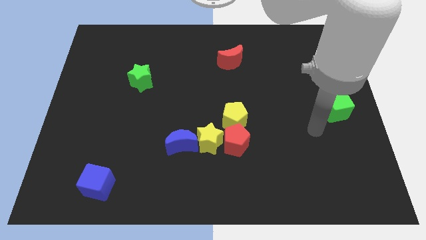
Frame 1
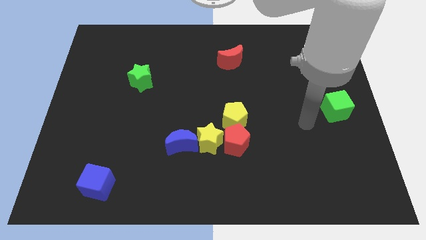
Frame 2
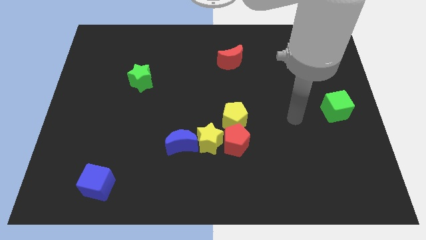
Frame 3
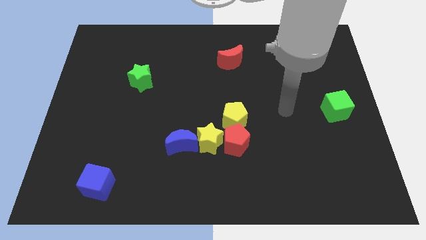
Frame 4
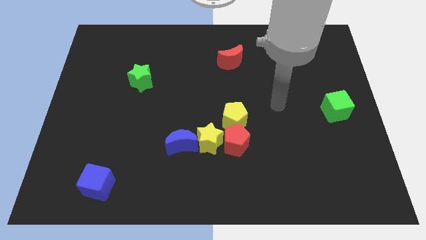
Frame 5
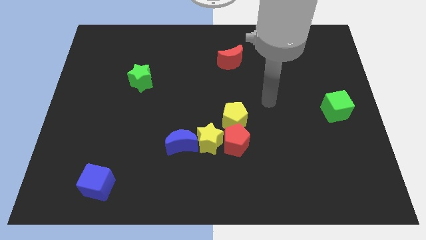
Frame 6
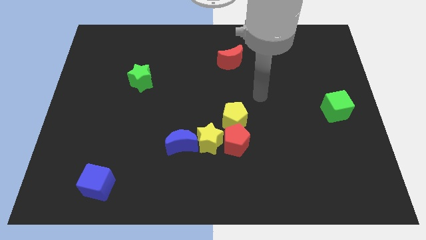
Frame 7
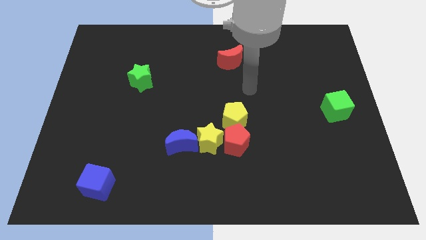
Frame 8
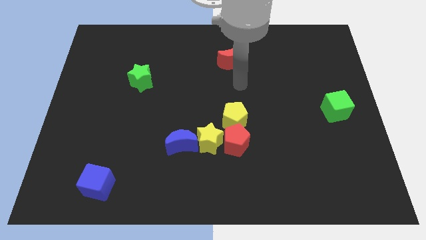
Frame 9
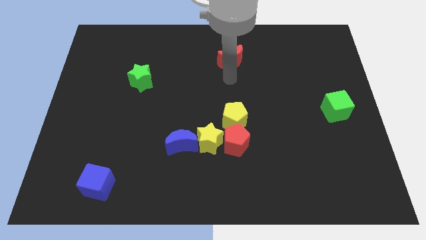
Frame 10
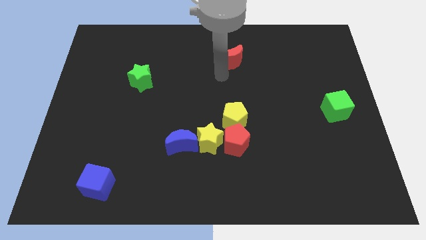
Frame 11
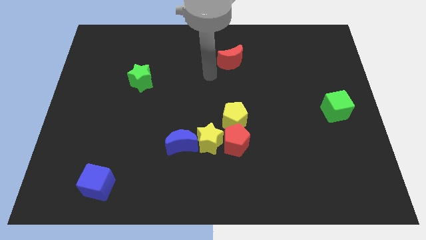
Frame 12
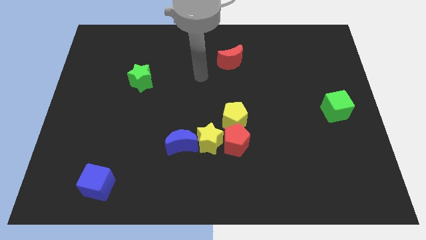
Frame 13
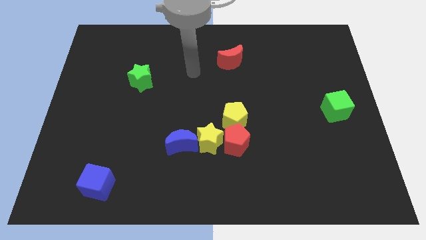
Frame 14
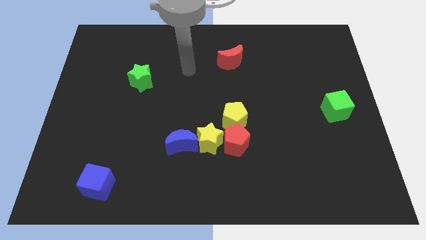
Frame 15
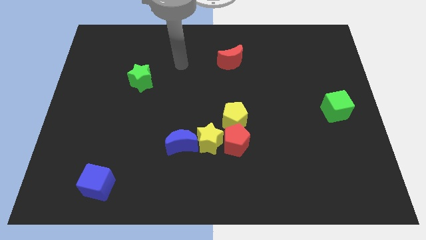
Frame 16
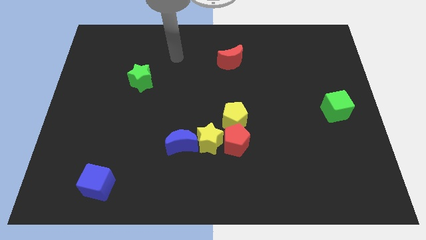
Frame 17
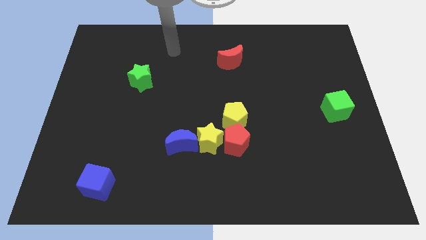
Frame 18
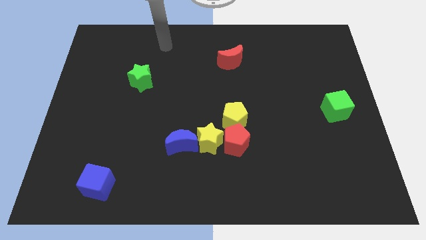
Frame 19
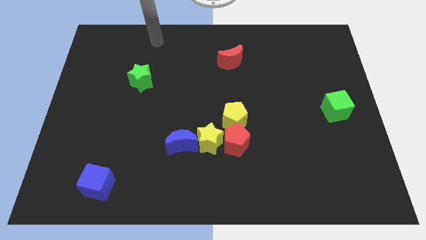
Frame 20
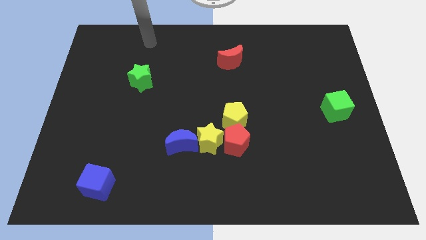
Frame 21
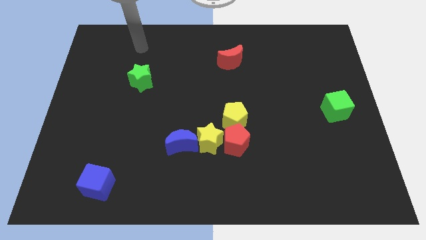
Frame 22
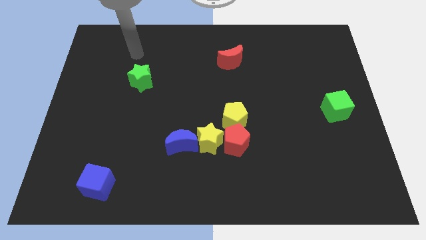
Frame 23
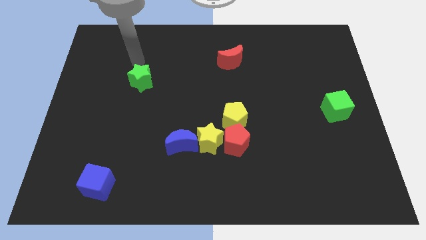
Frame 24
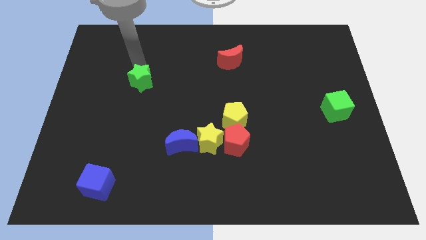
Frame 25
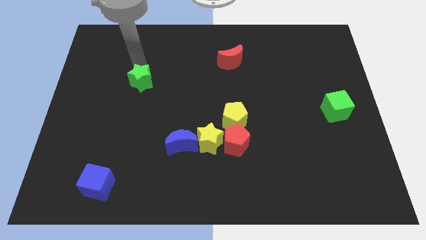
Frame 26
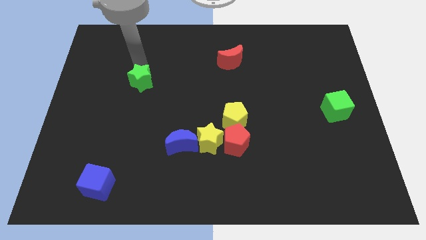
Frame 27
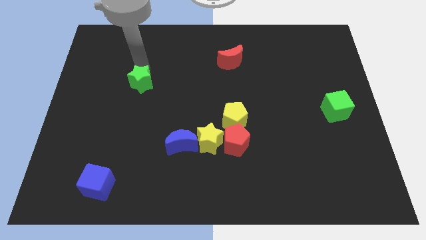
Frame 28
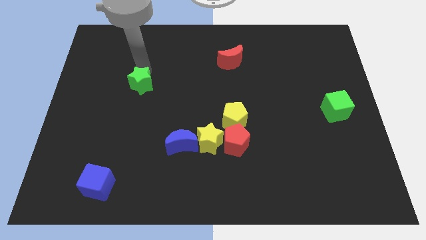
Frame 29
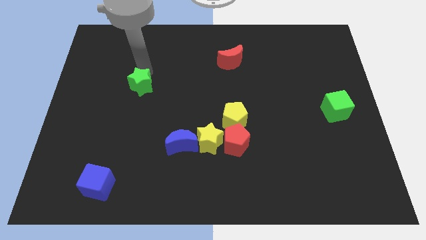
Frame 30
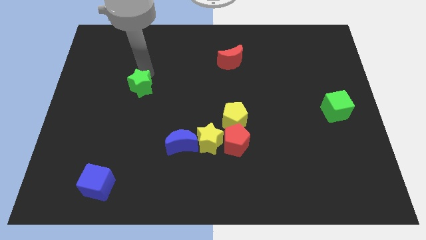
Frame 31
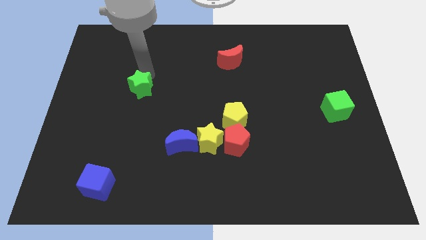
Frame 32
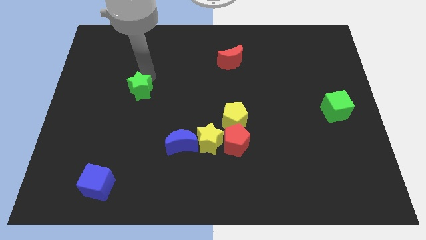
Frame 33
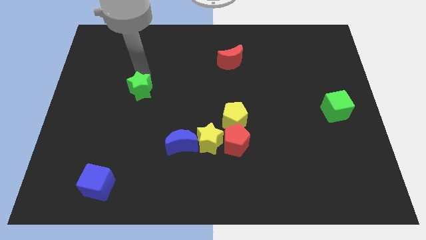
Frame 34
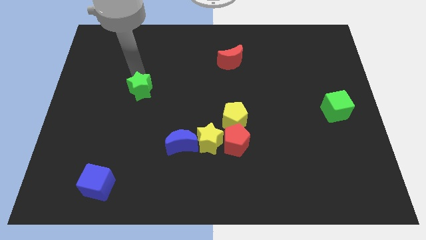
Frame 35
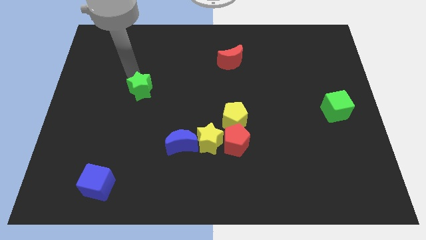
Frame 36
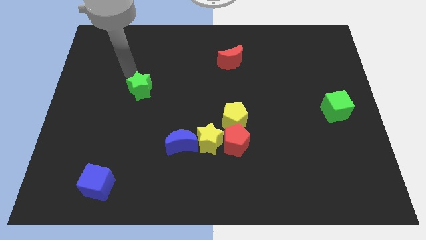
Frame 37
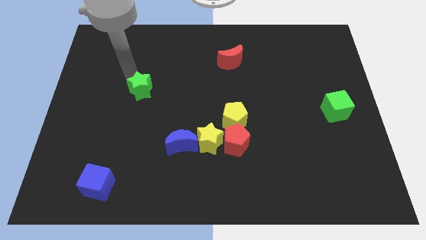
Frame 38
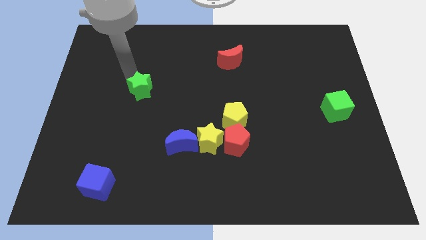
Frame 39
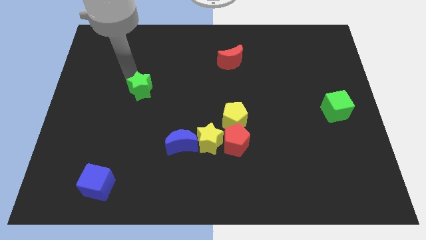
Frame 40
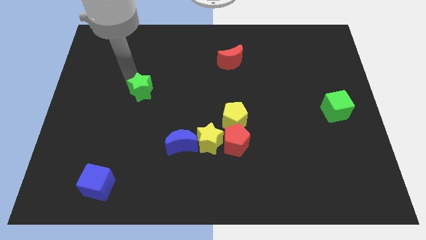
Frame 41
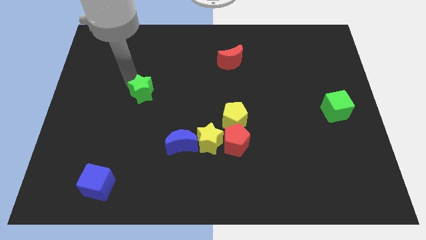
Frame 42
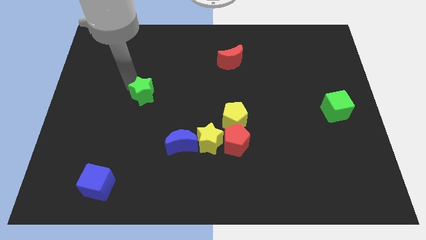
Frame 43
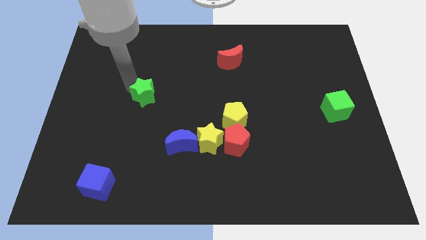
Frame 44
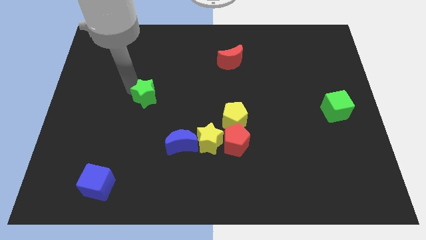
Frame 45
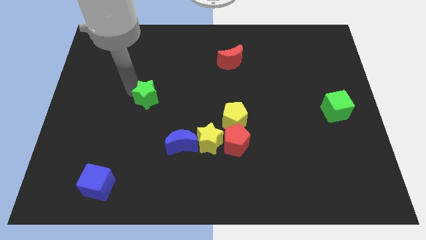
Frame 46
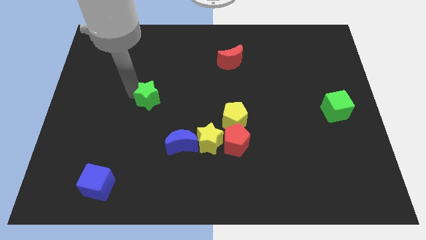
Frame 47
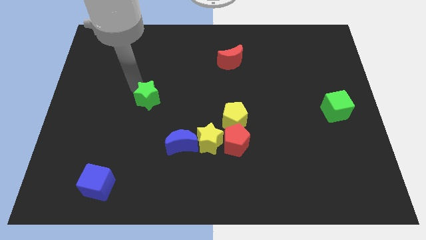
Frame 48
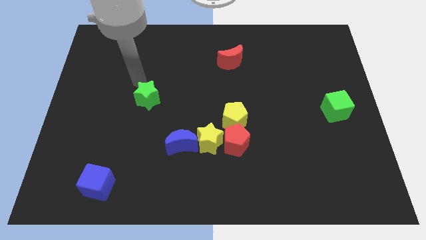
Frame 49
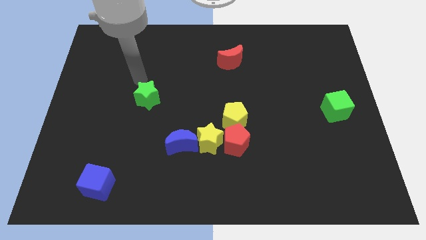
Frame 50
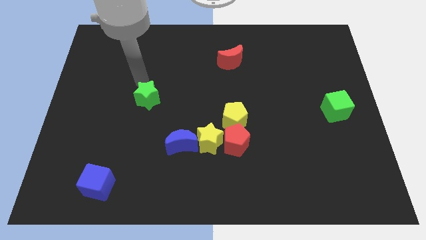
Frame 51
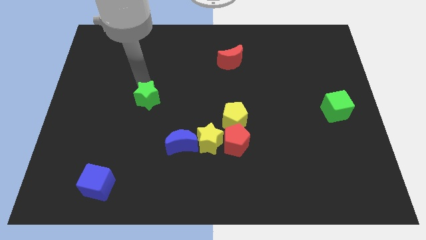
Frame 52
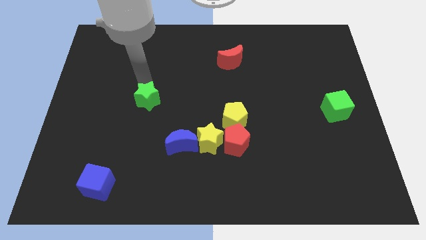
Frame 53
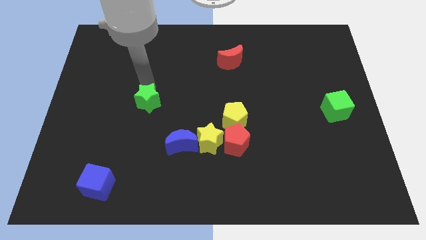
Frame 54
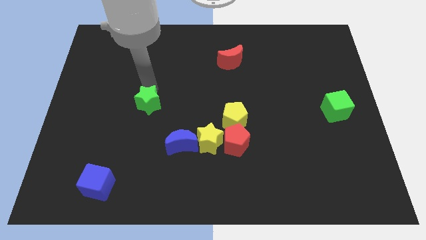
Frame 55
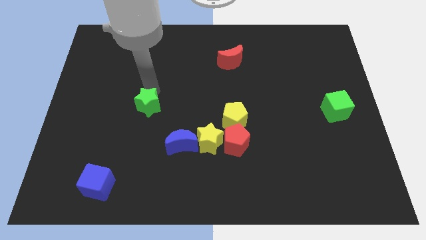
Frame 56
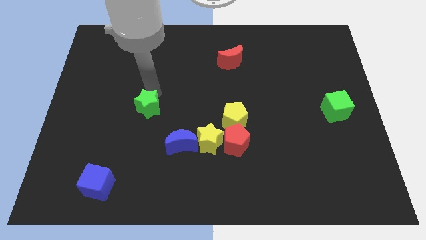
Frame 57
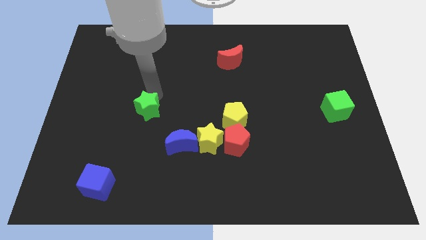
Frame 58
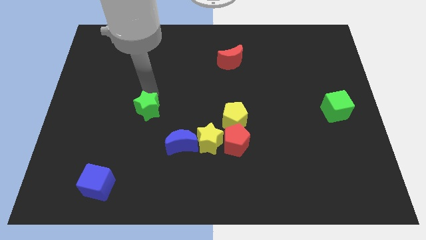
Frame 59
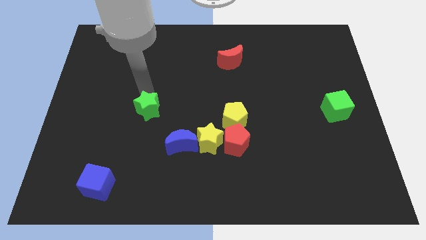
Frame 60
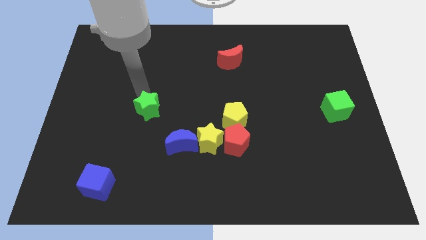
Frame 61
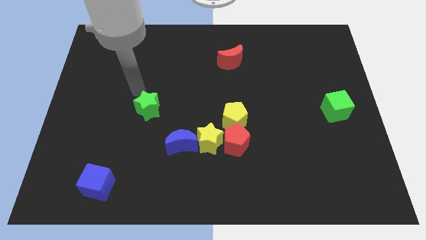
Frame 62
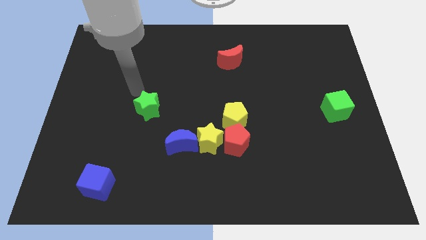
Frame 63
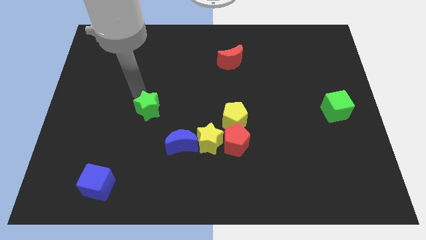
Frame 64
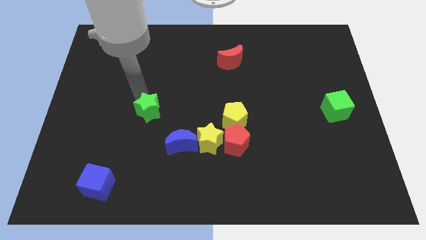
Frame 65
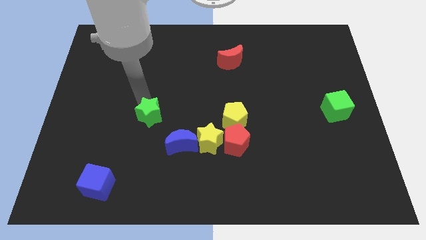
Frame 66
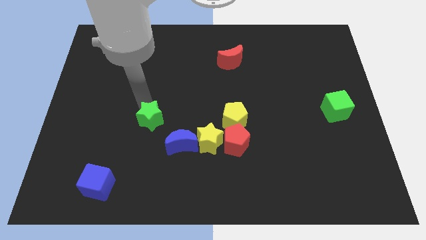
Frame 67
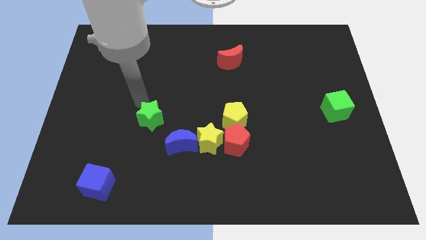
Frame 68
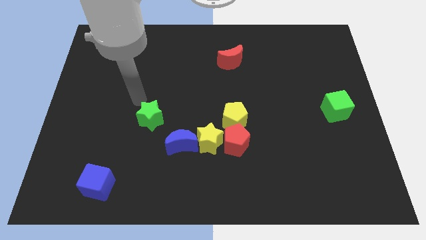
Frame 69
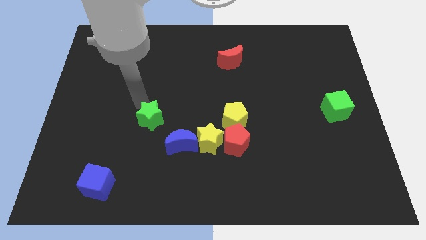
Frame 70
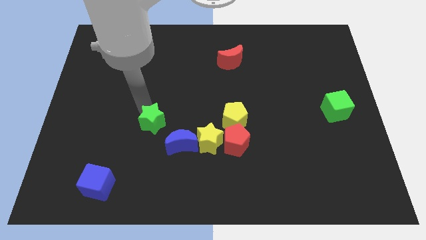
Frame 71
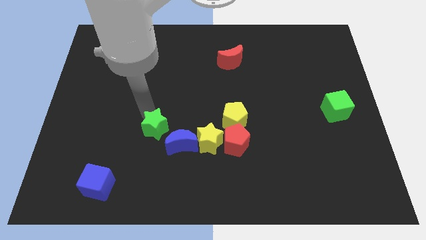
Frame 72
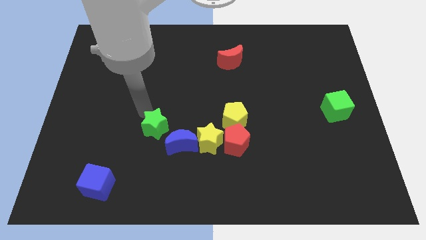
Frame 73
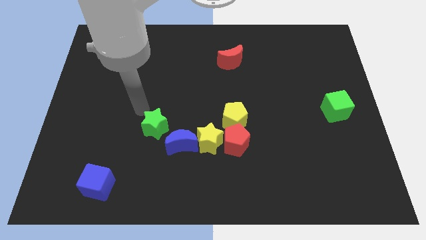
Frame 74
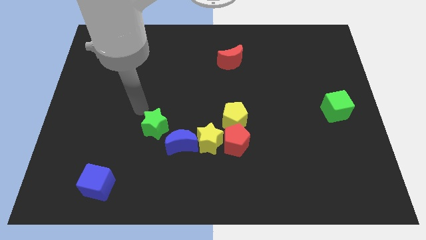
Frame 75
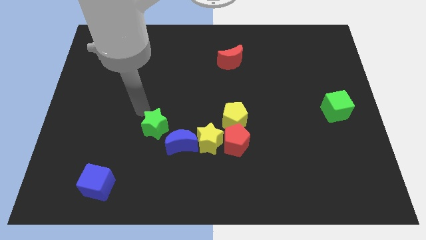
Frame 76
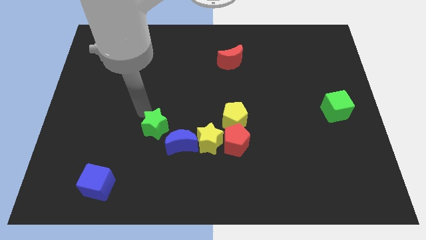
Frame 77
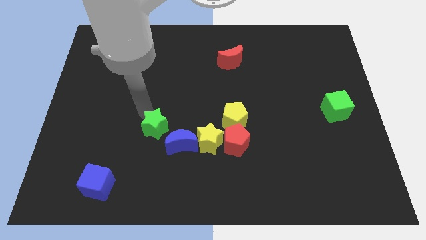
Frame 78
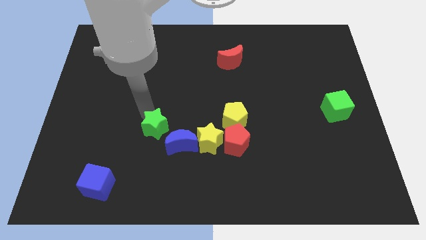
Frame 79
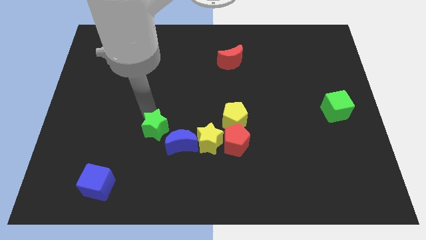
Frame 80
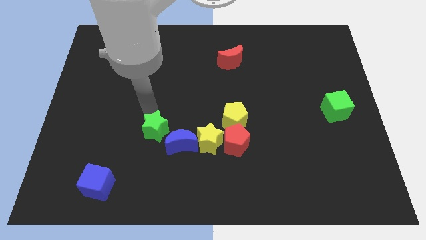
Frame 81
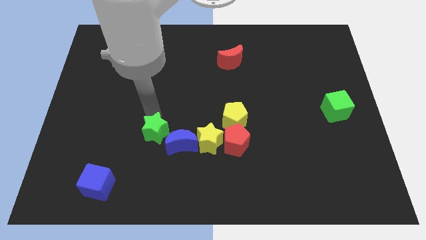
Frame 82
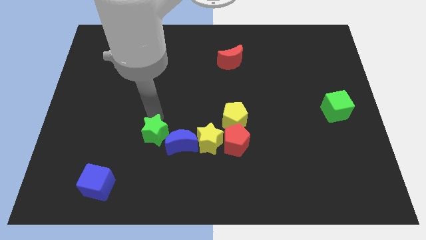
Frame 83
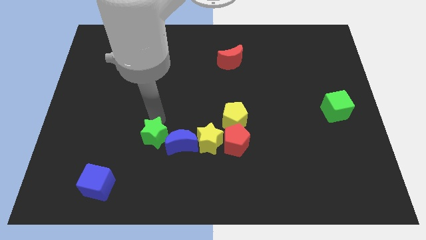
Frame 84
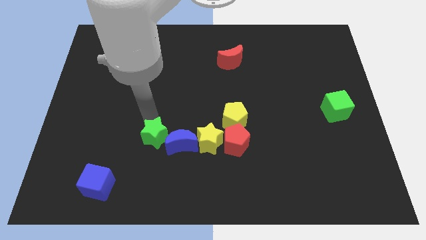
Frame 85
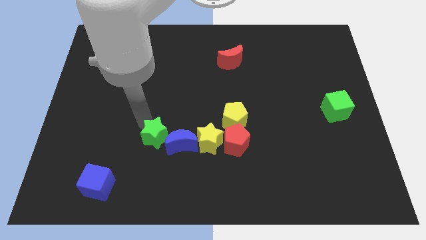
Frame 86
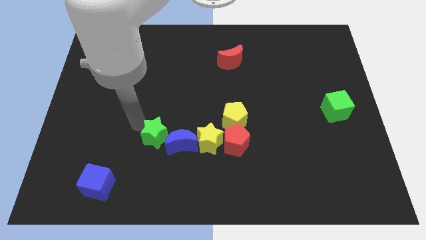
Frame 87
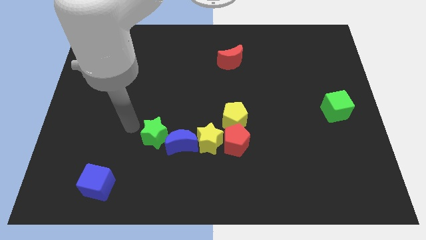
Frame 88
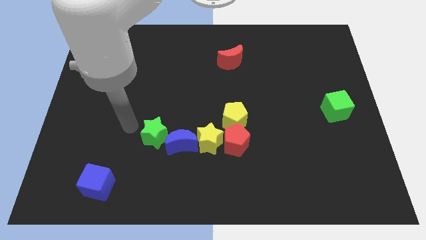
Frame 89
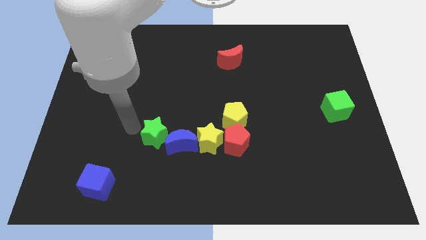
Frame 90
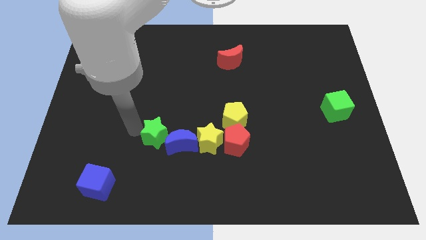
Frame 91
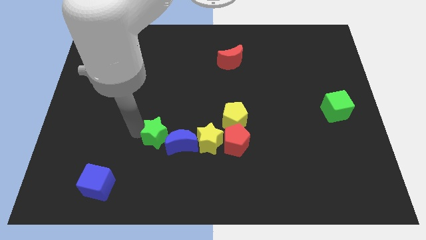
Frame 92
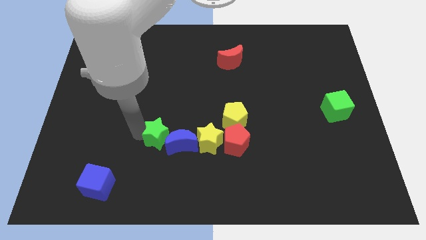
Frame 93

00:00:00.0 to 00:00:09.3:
move the green star close to the blue moon
